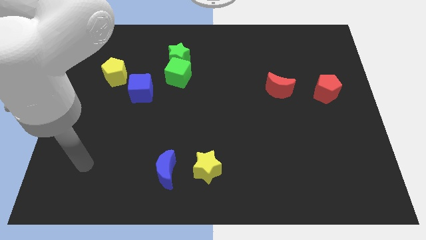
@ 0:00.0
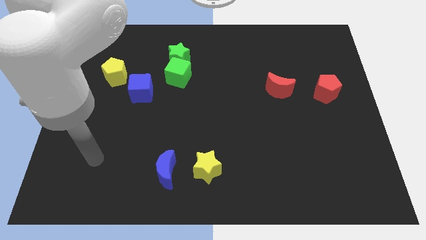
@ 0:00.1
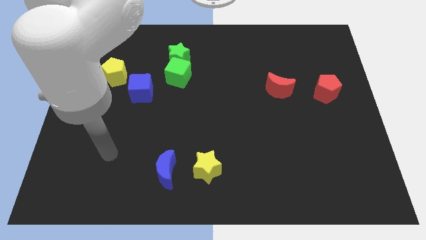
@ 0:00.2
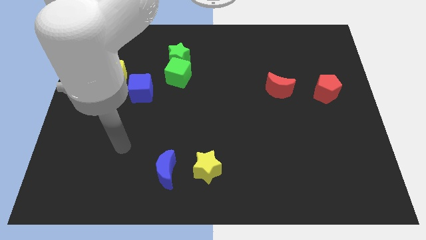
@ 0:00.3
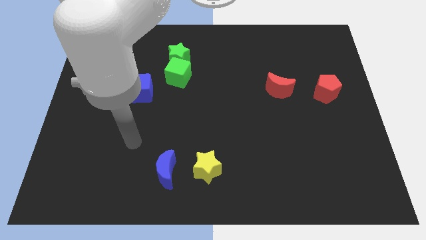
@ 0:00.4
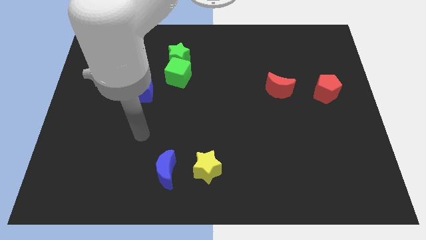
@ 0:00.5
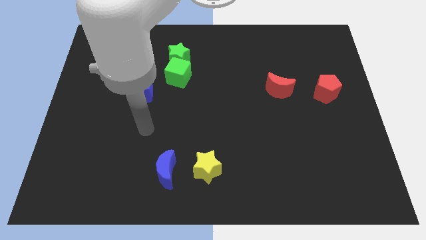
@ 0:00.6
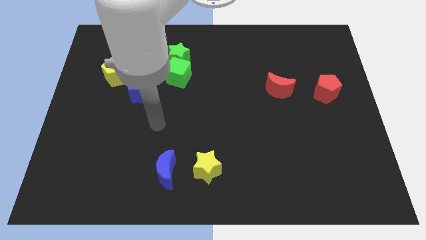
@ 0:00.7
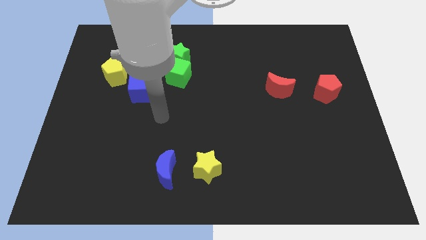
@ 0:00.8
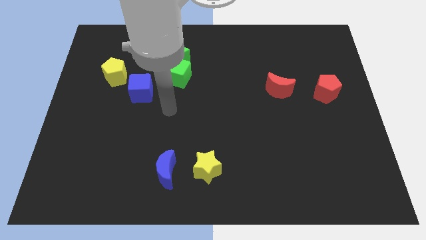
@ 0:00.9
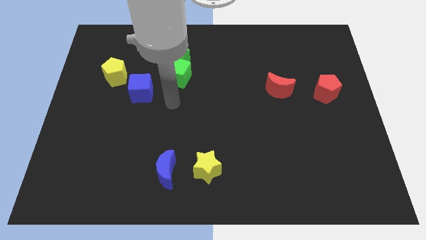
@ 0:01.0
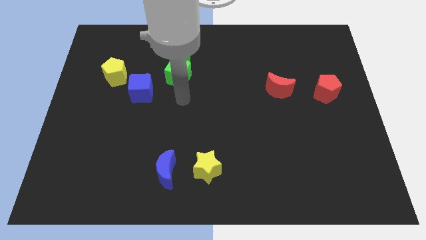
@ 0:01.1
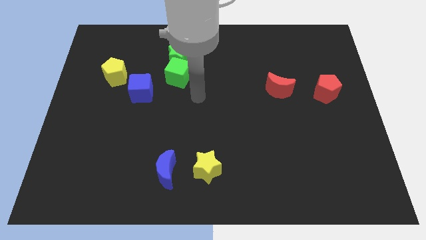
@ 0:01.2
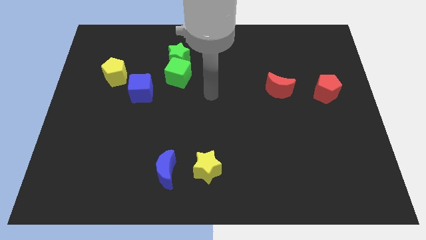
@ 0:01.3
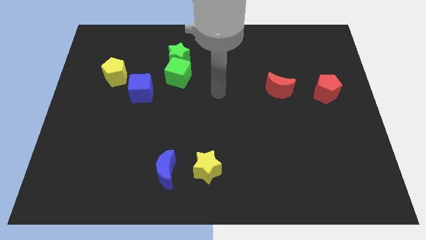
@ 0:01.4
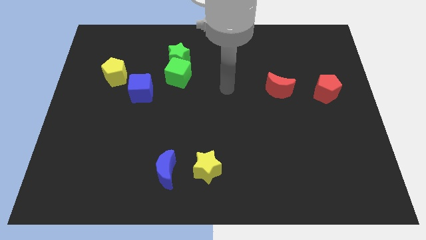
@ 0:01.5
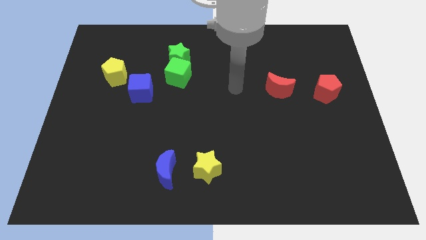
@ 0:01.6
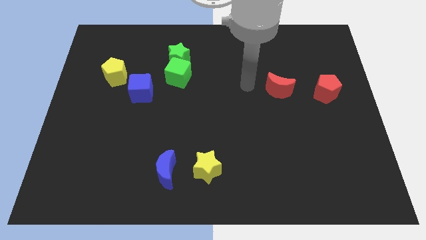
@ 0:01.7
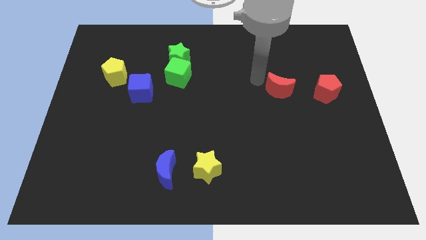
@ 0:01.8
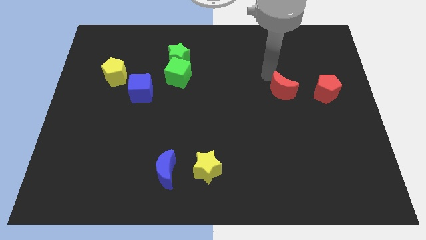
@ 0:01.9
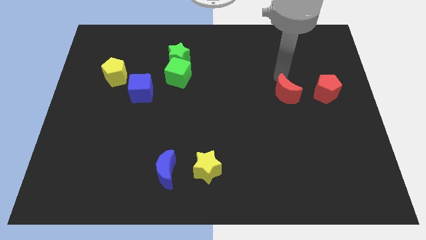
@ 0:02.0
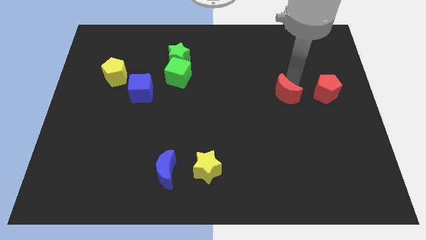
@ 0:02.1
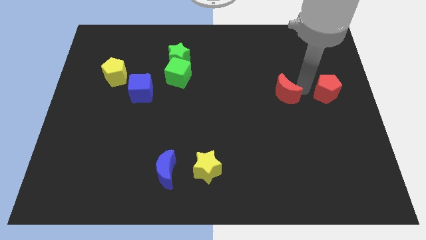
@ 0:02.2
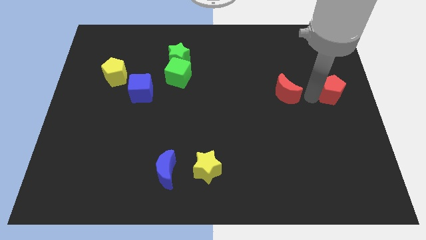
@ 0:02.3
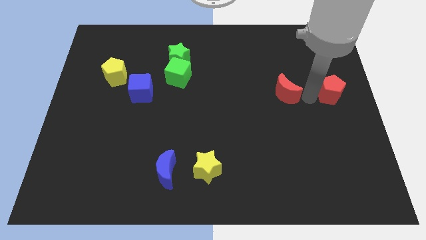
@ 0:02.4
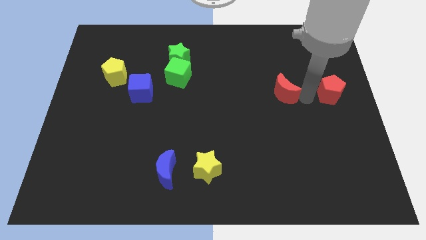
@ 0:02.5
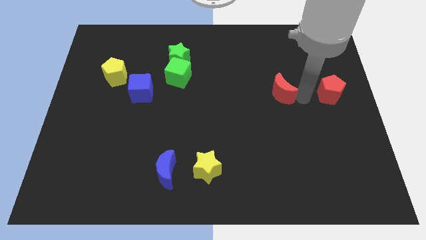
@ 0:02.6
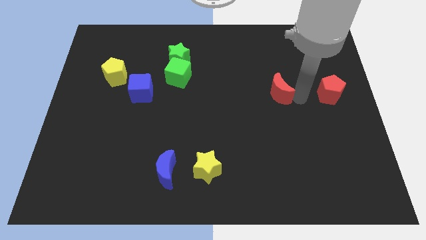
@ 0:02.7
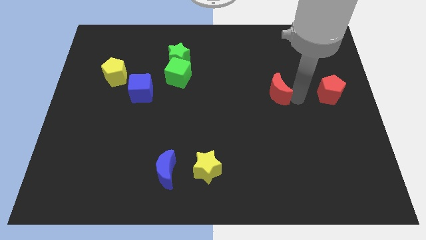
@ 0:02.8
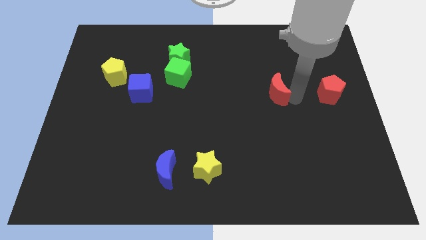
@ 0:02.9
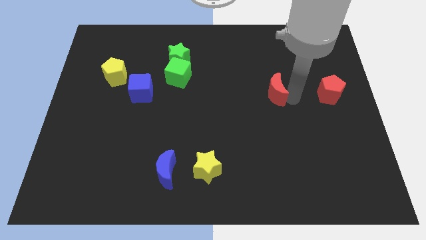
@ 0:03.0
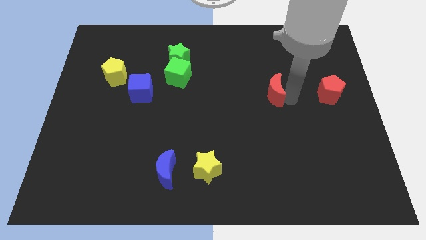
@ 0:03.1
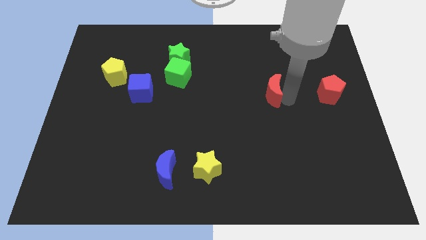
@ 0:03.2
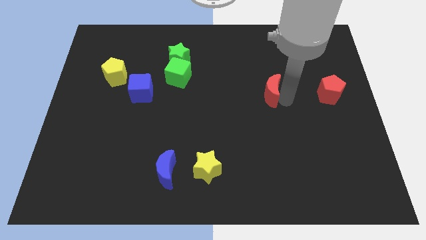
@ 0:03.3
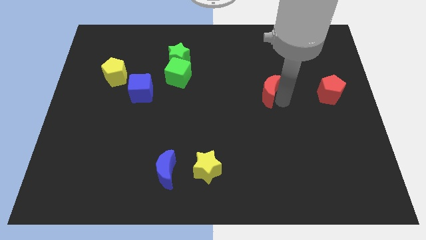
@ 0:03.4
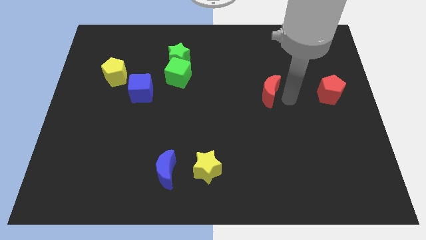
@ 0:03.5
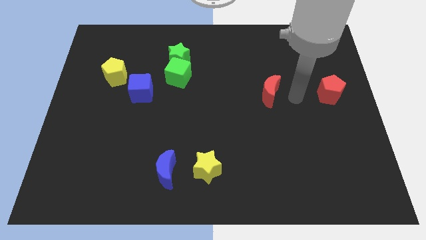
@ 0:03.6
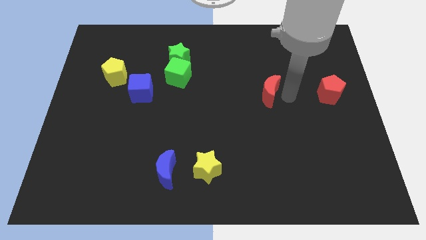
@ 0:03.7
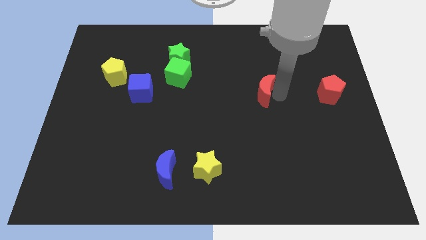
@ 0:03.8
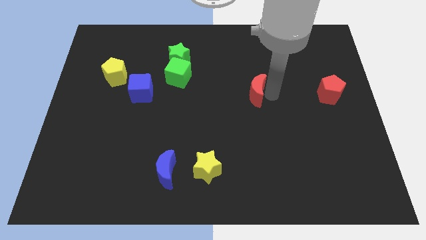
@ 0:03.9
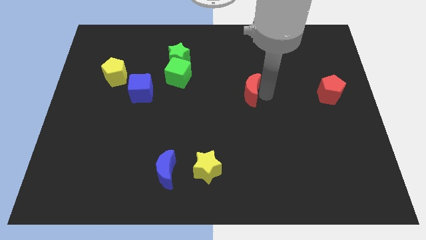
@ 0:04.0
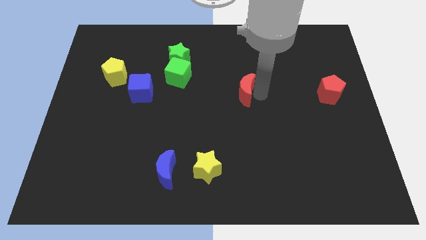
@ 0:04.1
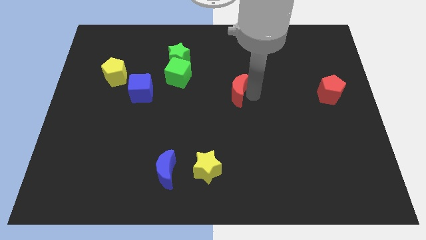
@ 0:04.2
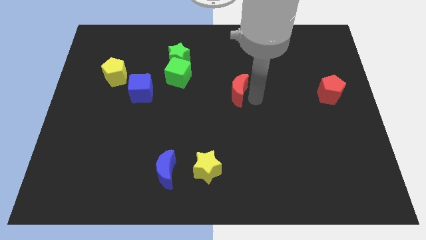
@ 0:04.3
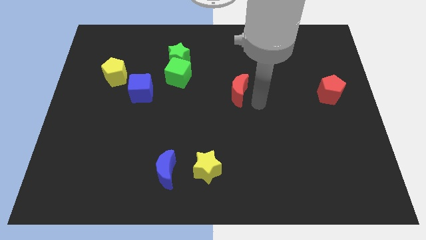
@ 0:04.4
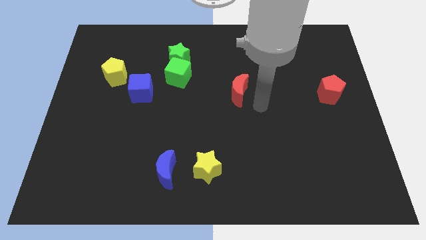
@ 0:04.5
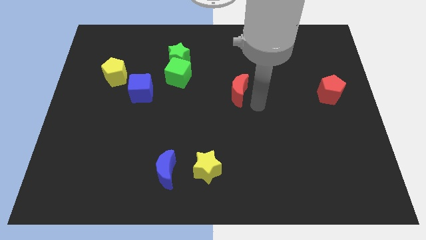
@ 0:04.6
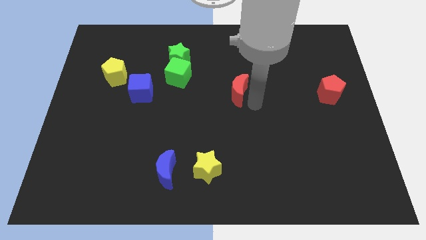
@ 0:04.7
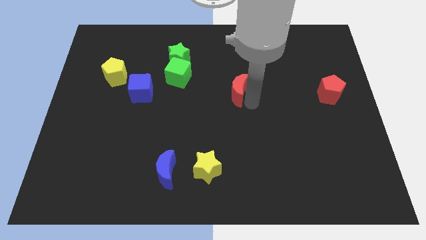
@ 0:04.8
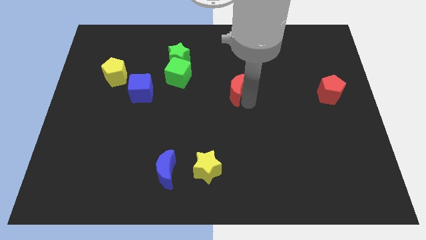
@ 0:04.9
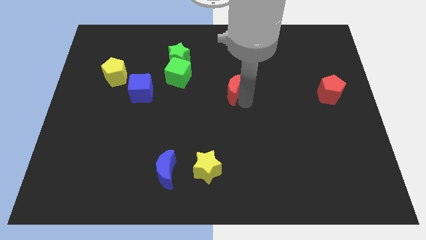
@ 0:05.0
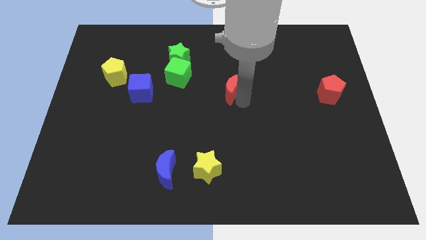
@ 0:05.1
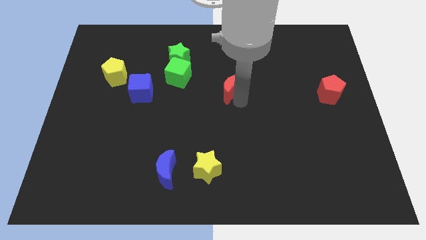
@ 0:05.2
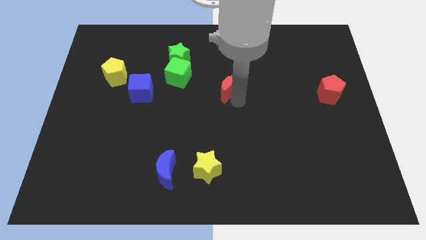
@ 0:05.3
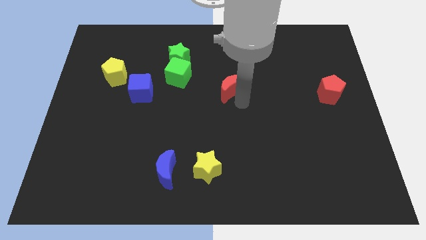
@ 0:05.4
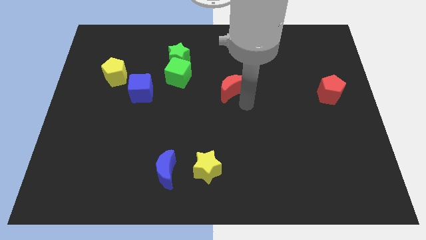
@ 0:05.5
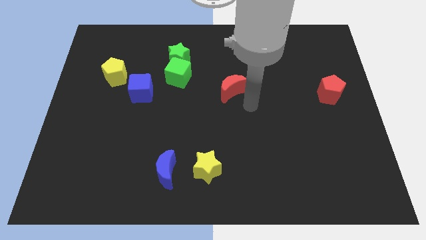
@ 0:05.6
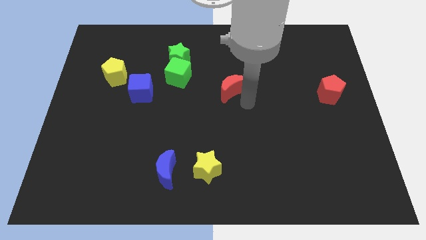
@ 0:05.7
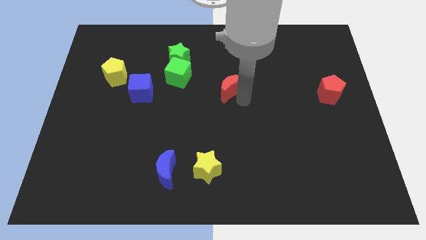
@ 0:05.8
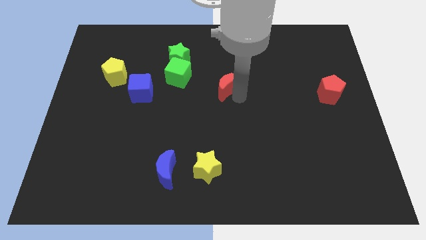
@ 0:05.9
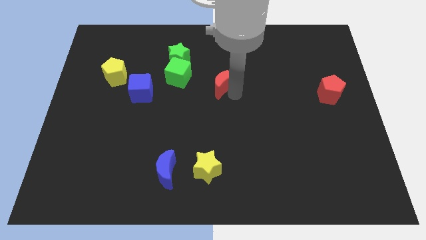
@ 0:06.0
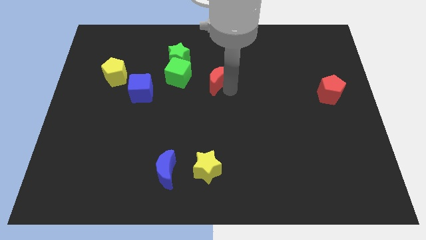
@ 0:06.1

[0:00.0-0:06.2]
slide the red moon diagonally down and to the right of the green star
